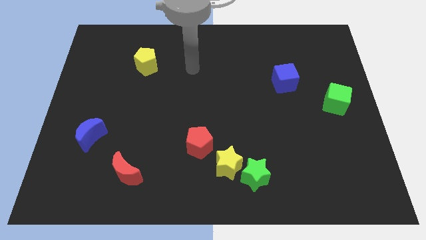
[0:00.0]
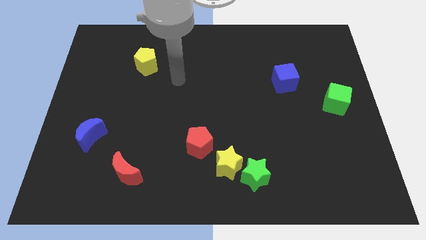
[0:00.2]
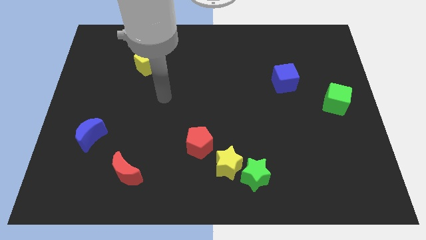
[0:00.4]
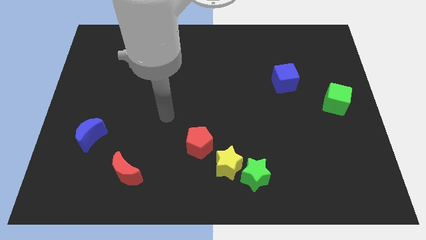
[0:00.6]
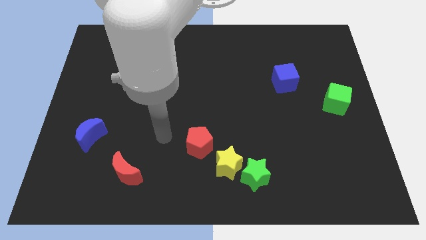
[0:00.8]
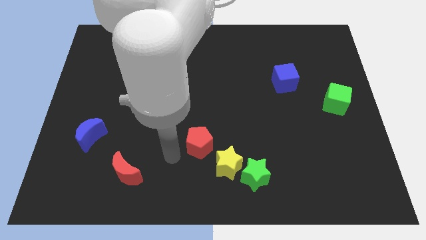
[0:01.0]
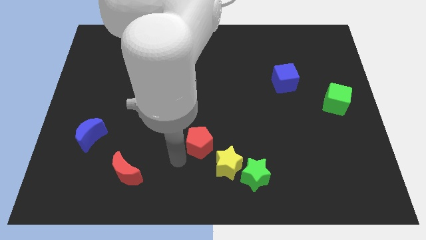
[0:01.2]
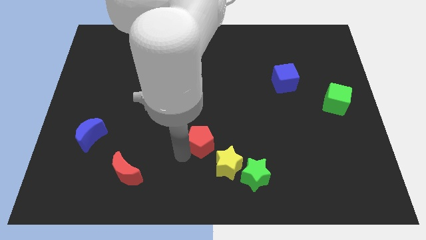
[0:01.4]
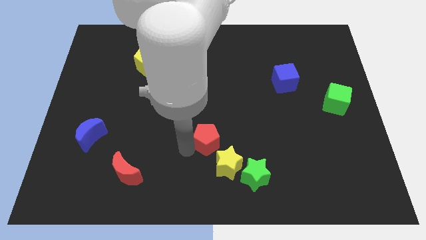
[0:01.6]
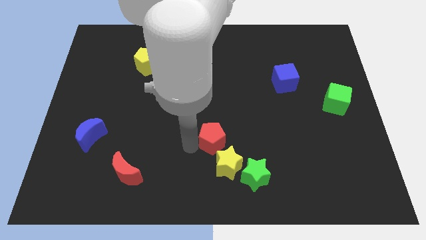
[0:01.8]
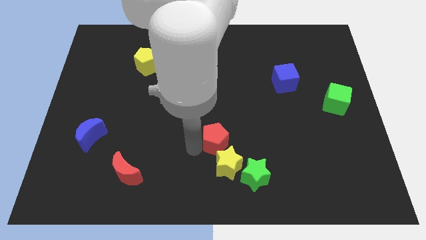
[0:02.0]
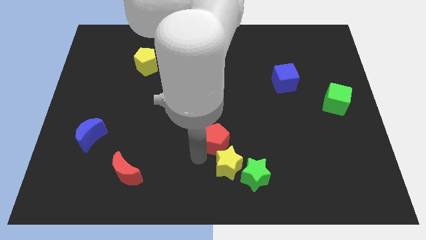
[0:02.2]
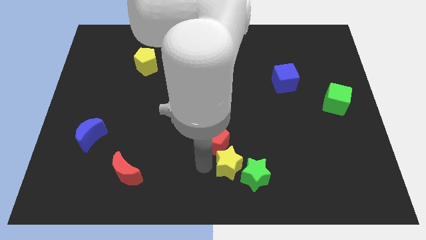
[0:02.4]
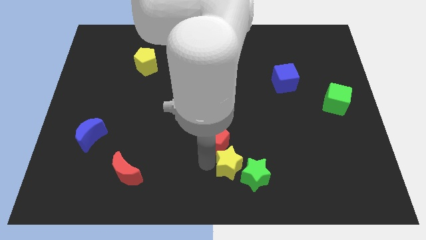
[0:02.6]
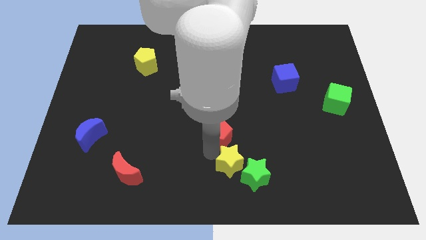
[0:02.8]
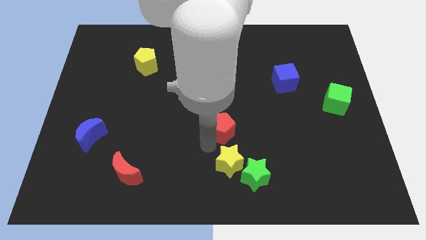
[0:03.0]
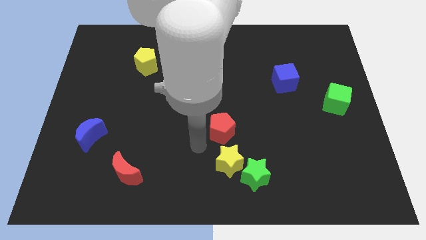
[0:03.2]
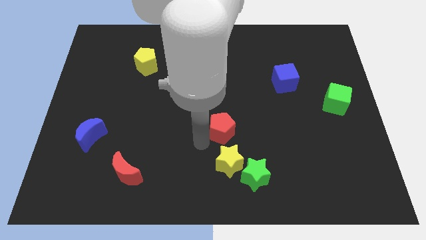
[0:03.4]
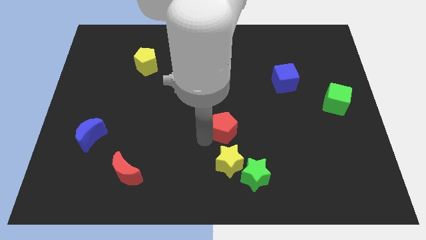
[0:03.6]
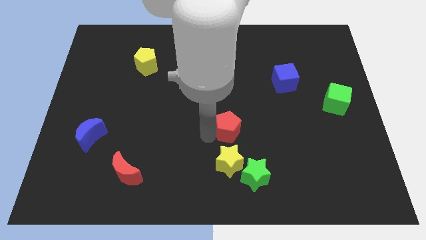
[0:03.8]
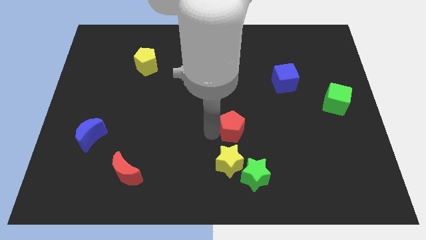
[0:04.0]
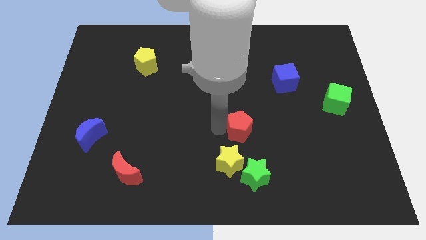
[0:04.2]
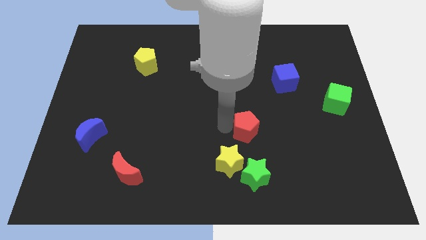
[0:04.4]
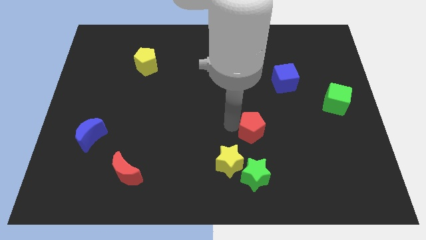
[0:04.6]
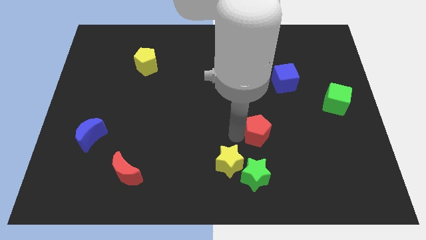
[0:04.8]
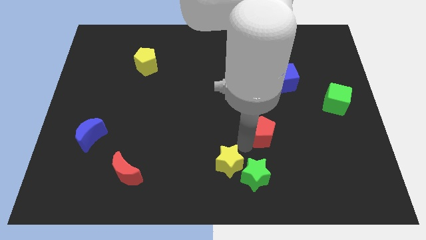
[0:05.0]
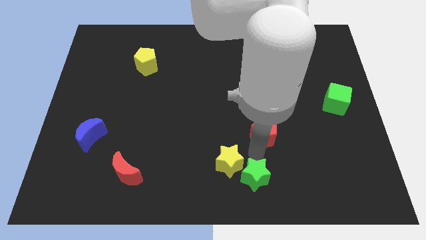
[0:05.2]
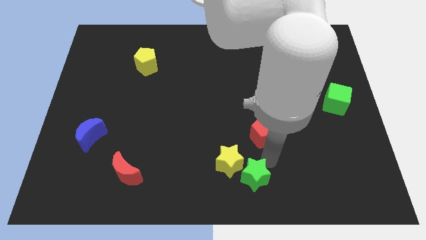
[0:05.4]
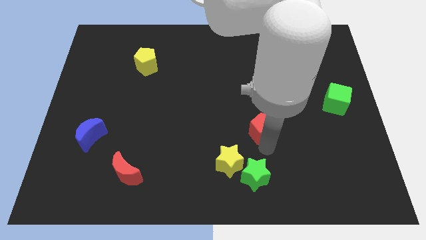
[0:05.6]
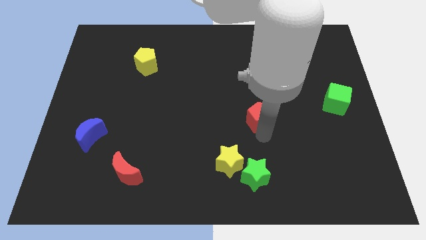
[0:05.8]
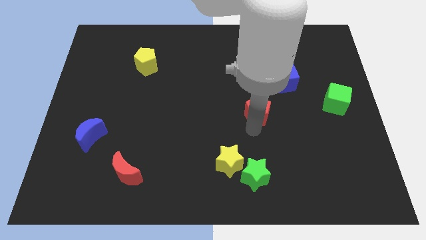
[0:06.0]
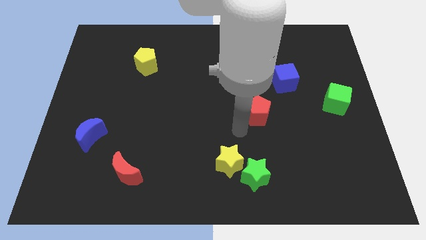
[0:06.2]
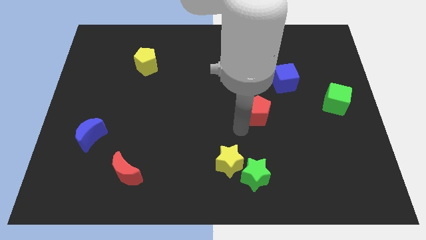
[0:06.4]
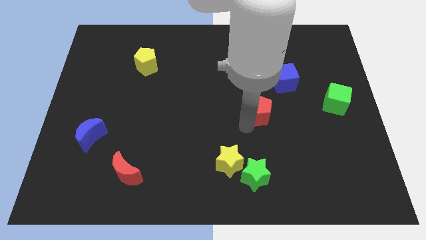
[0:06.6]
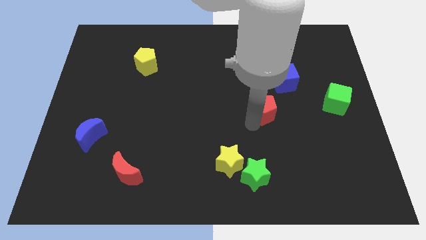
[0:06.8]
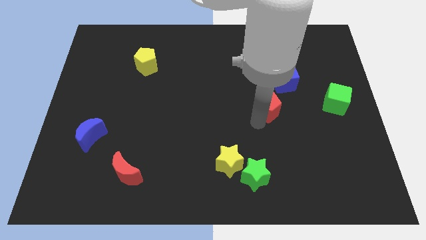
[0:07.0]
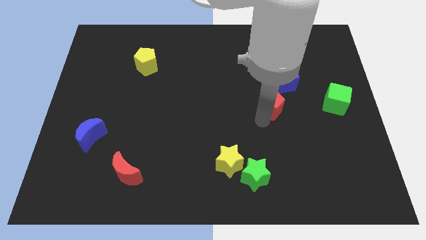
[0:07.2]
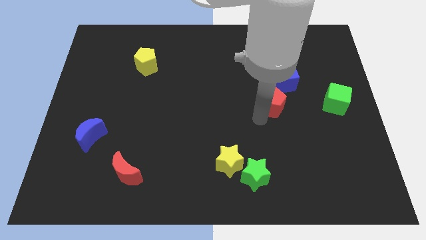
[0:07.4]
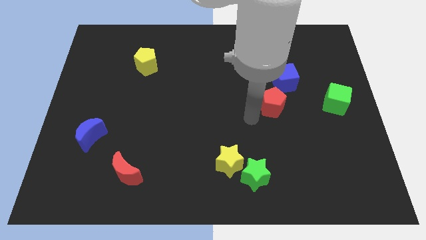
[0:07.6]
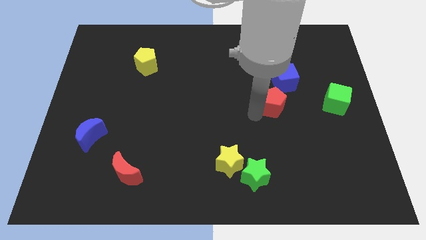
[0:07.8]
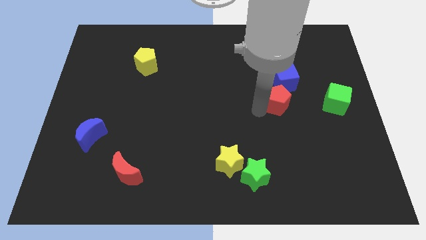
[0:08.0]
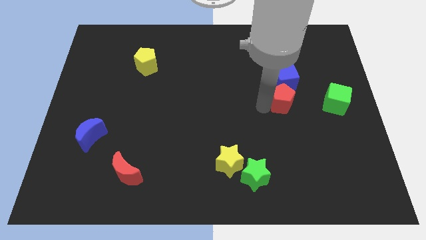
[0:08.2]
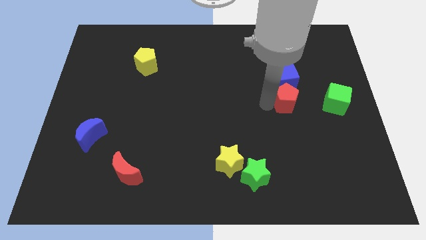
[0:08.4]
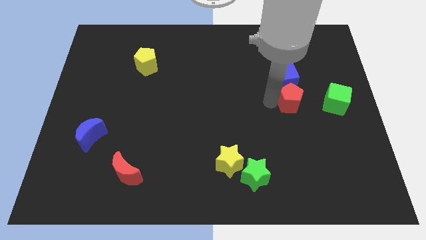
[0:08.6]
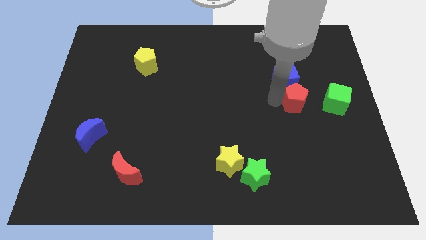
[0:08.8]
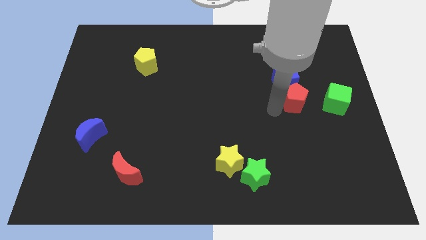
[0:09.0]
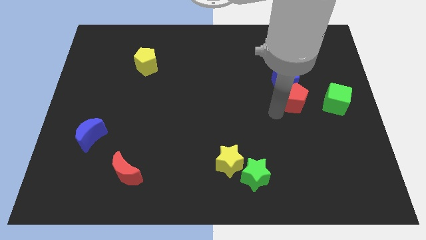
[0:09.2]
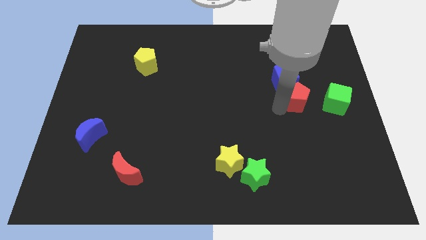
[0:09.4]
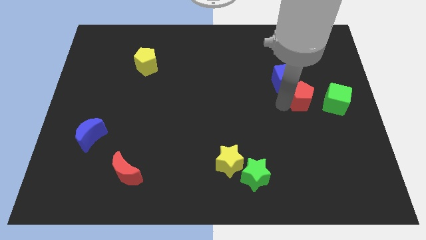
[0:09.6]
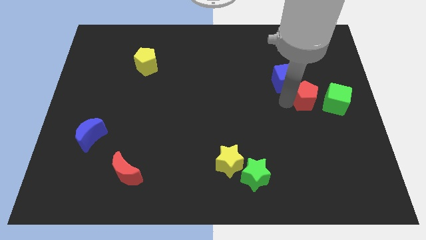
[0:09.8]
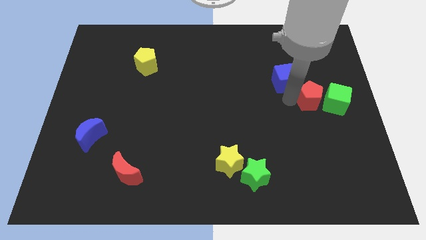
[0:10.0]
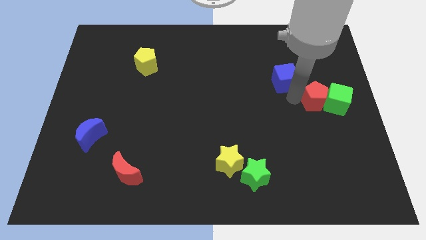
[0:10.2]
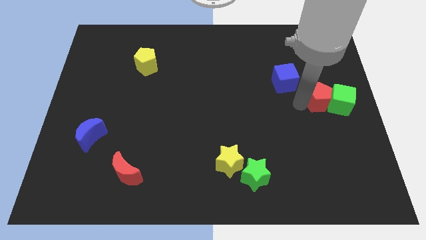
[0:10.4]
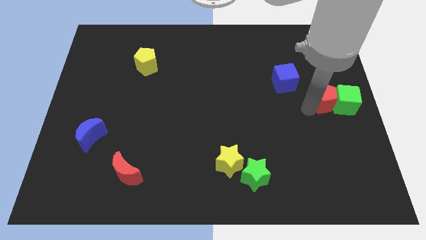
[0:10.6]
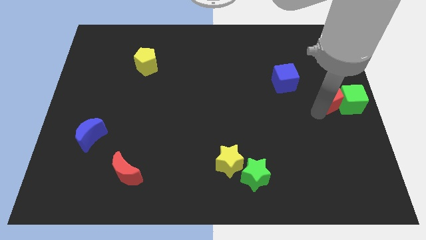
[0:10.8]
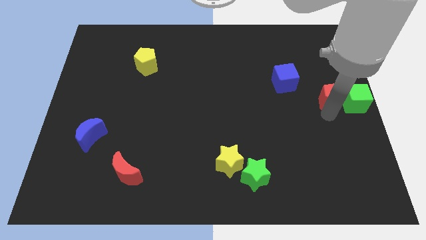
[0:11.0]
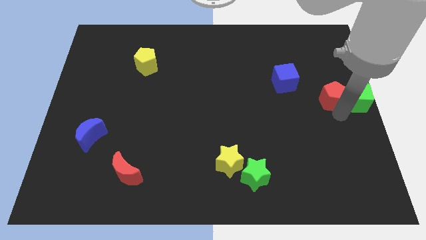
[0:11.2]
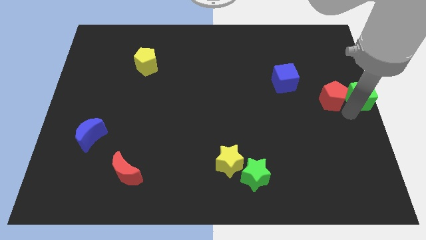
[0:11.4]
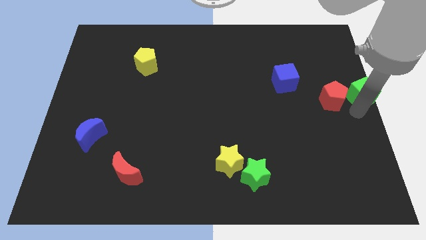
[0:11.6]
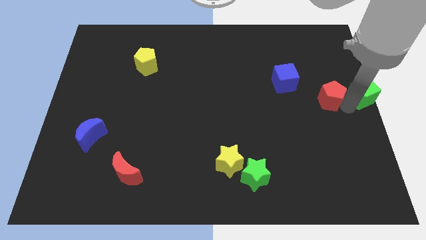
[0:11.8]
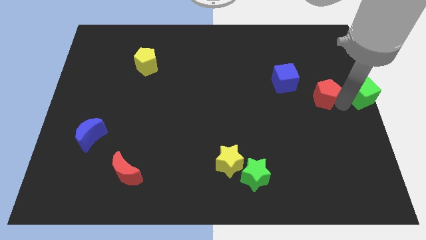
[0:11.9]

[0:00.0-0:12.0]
move the red pentagon just right of the blue cube
